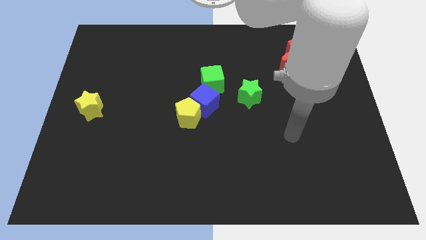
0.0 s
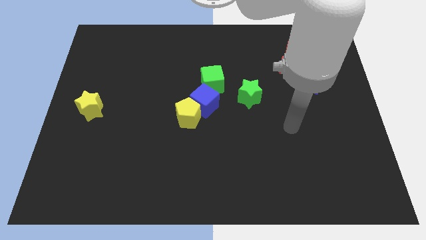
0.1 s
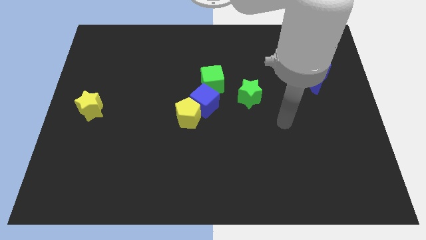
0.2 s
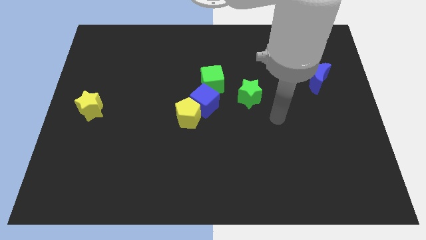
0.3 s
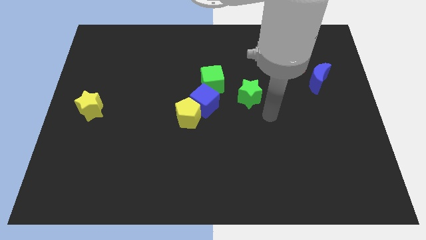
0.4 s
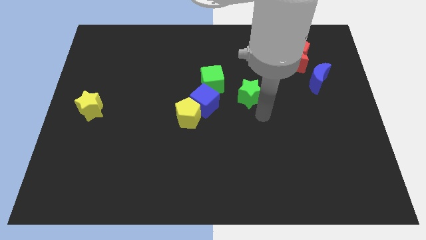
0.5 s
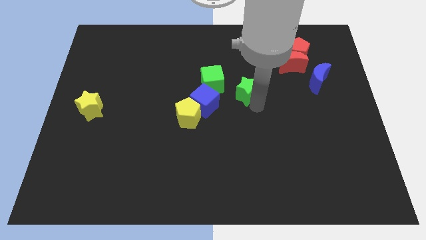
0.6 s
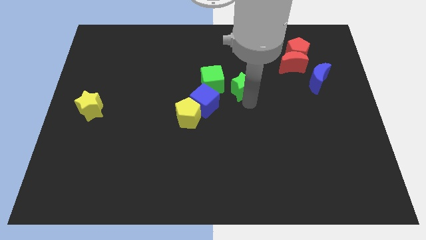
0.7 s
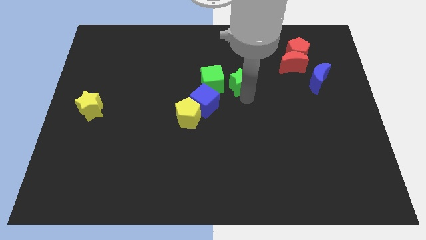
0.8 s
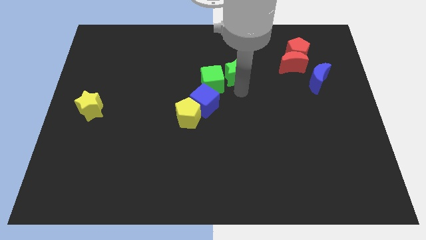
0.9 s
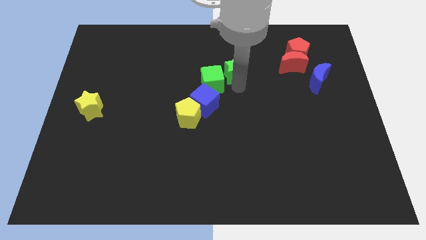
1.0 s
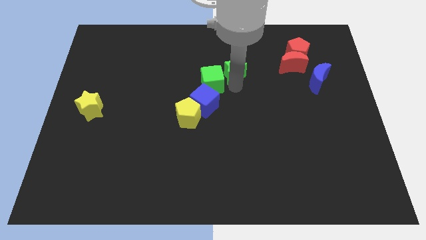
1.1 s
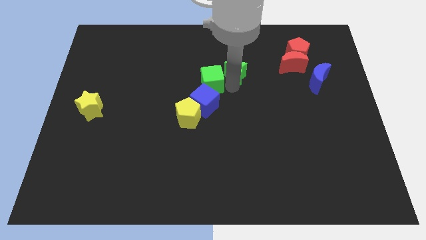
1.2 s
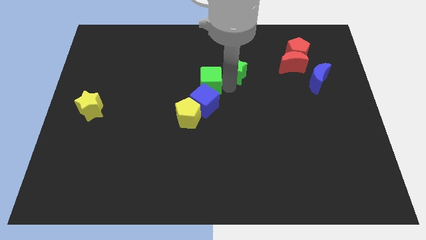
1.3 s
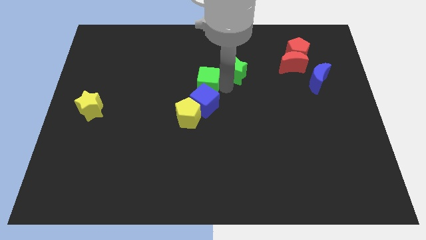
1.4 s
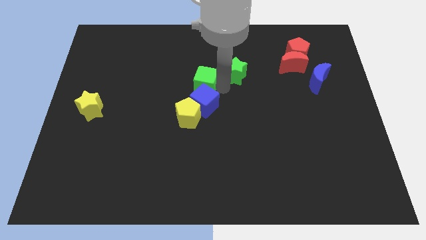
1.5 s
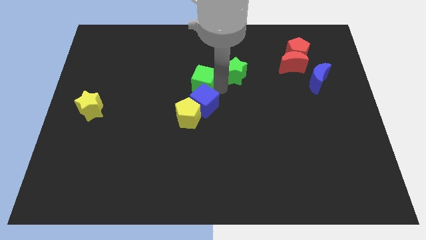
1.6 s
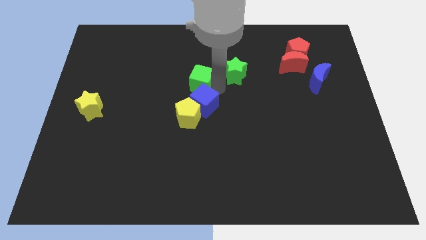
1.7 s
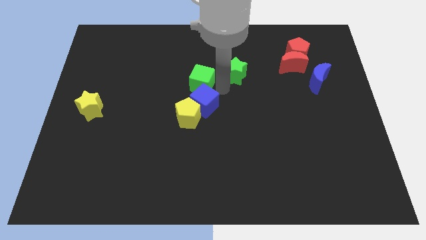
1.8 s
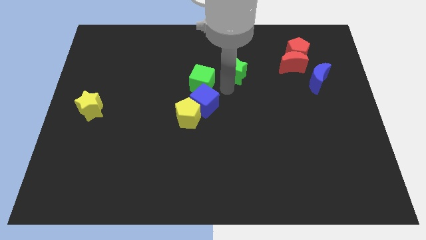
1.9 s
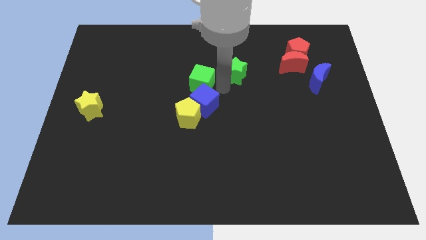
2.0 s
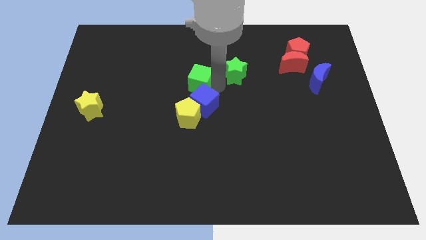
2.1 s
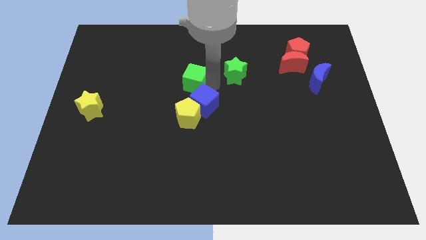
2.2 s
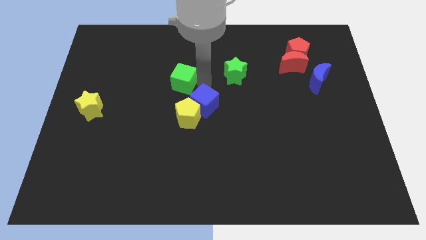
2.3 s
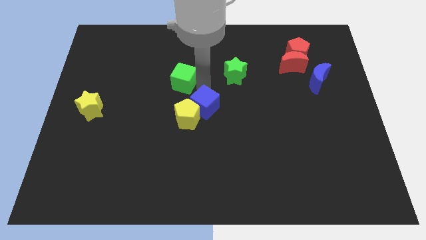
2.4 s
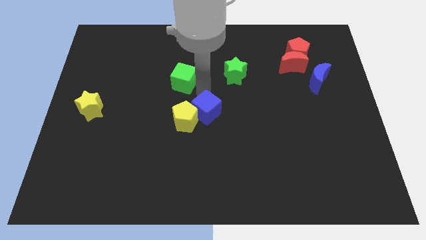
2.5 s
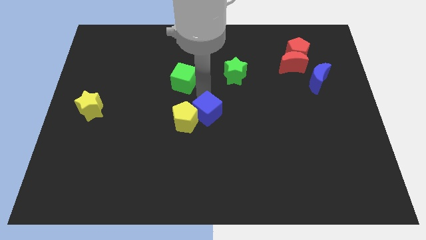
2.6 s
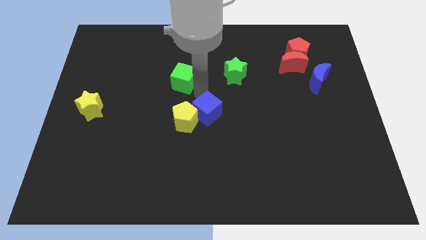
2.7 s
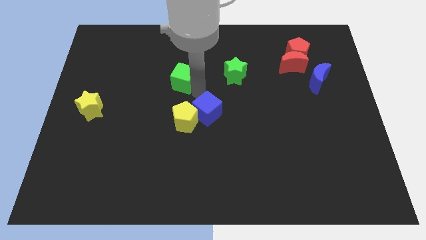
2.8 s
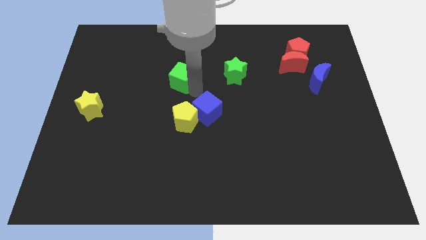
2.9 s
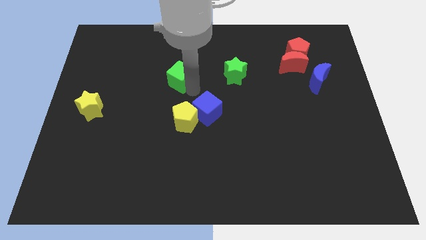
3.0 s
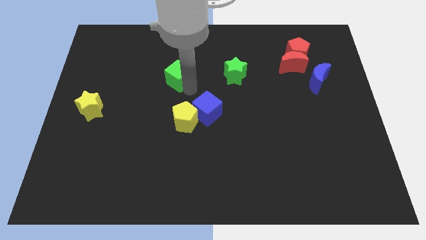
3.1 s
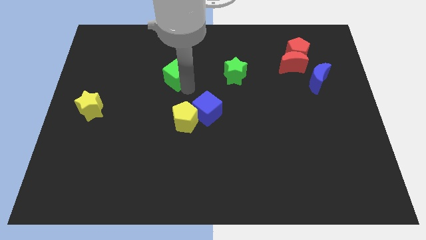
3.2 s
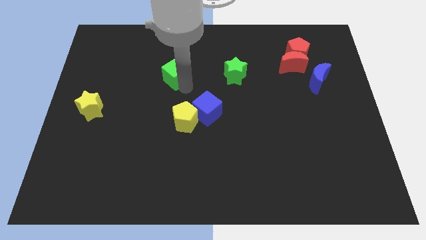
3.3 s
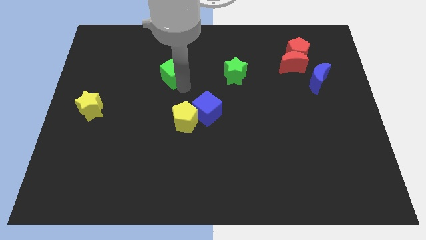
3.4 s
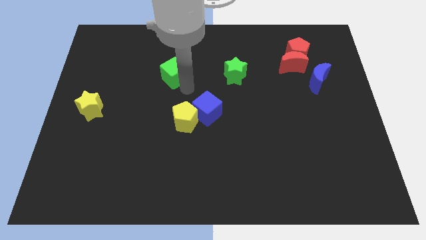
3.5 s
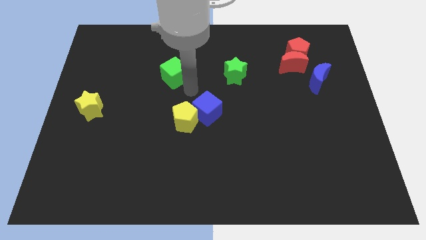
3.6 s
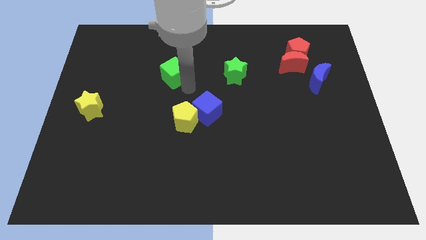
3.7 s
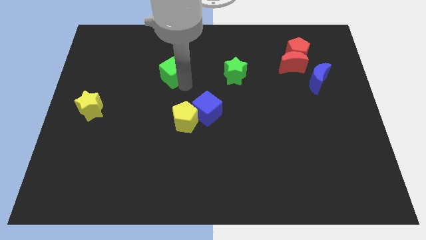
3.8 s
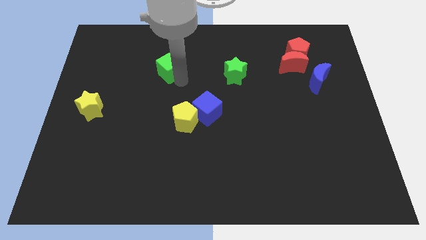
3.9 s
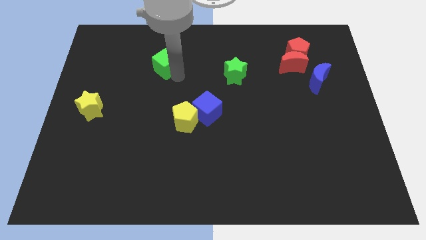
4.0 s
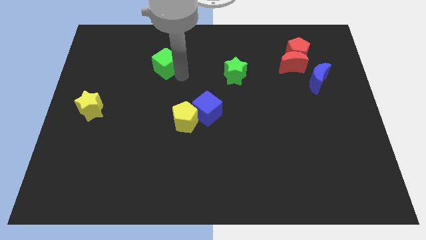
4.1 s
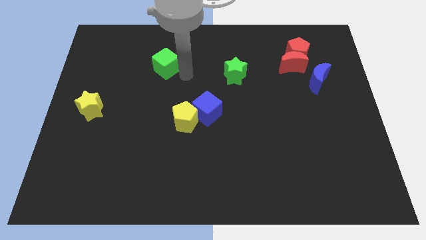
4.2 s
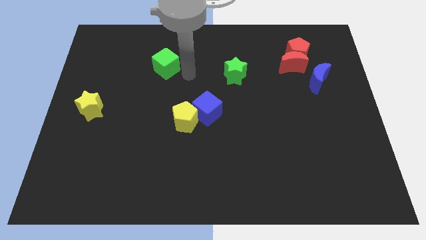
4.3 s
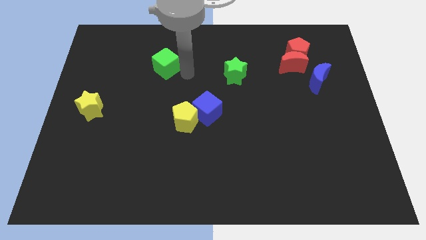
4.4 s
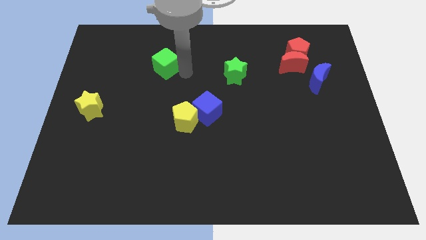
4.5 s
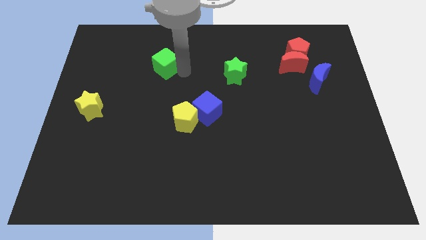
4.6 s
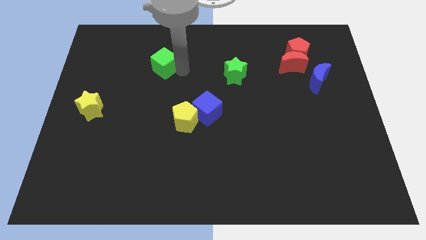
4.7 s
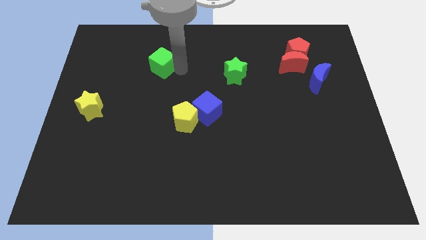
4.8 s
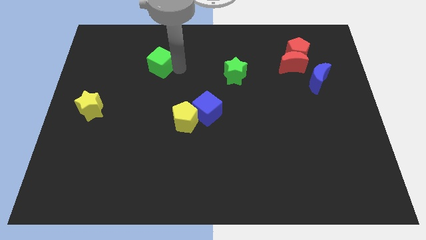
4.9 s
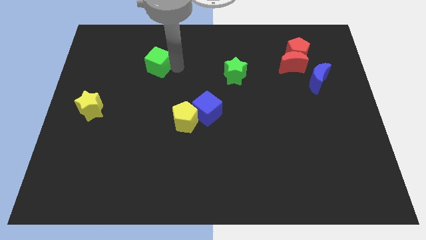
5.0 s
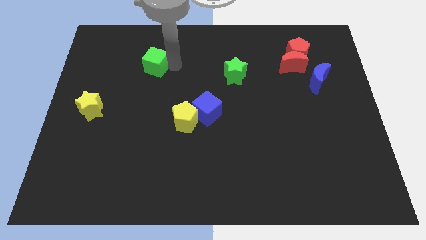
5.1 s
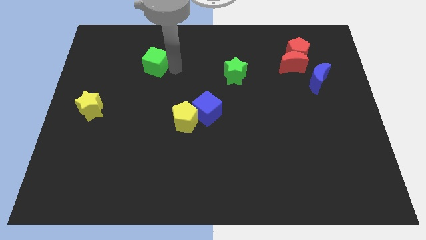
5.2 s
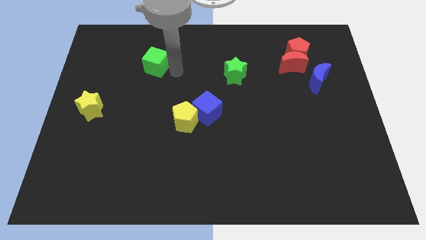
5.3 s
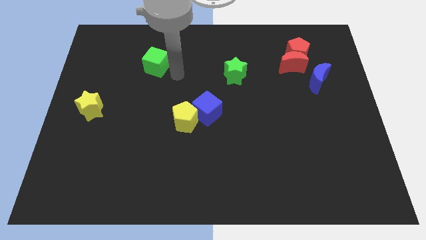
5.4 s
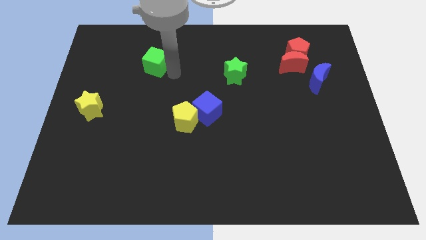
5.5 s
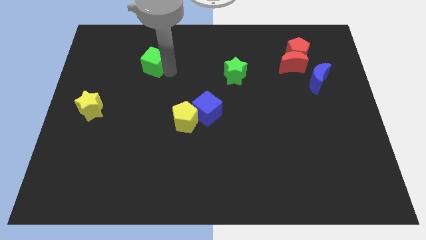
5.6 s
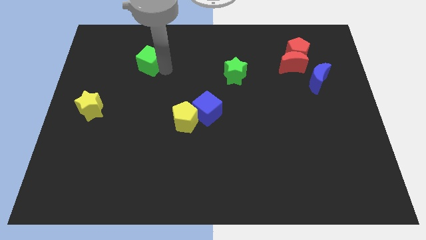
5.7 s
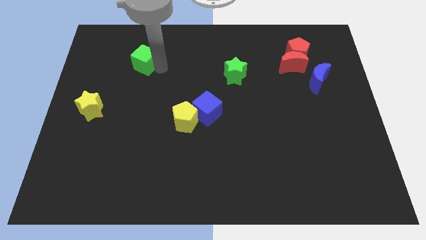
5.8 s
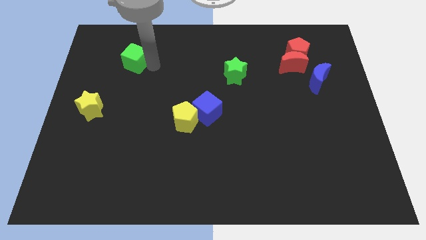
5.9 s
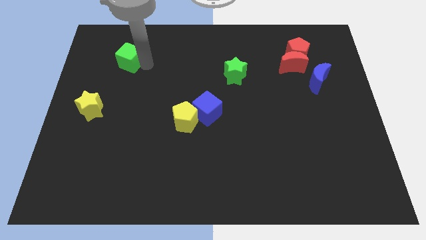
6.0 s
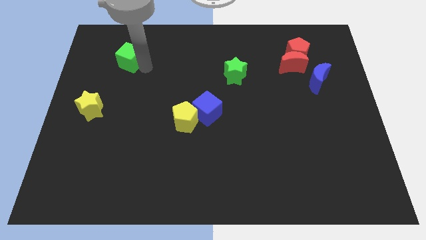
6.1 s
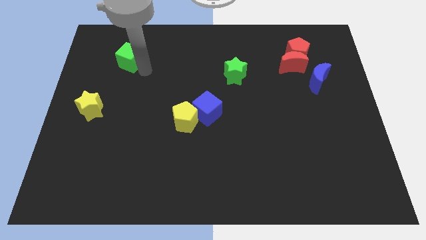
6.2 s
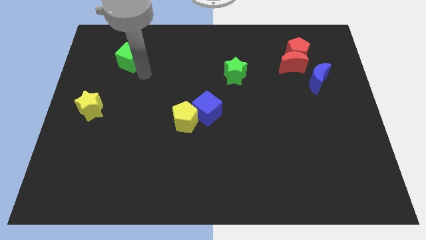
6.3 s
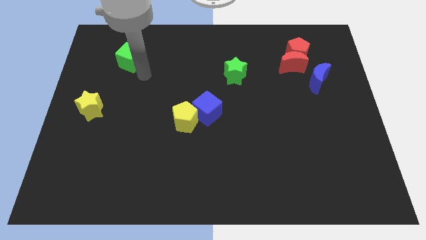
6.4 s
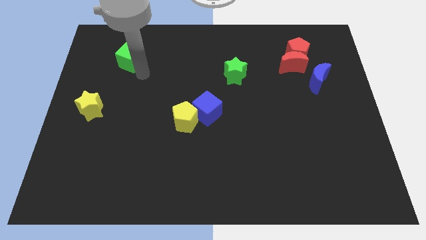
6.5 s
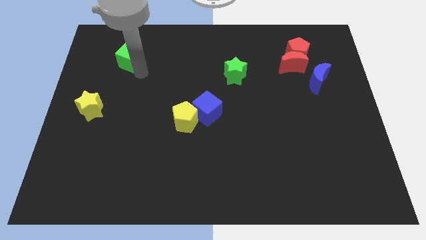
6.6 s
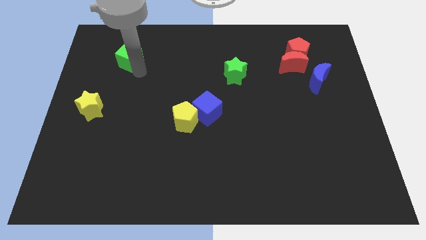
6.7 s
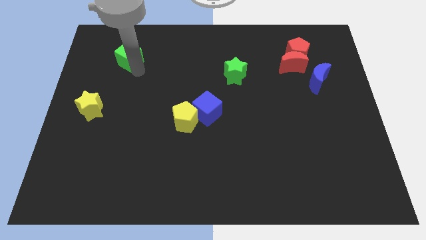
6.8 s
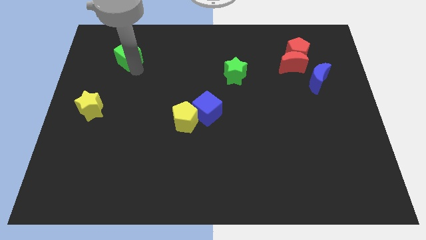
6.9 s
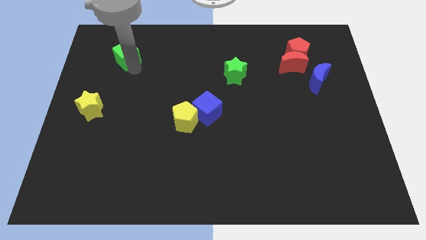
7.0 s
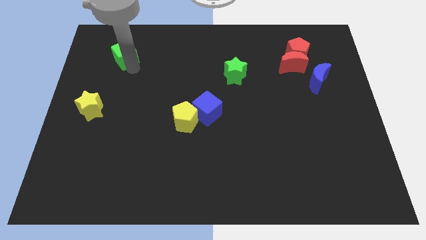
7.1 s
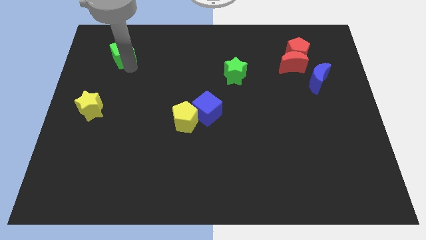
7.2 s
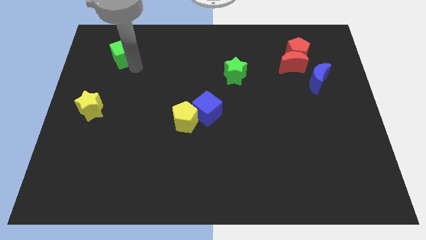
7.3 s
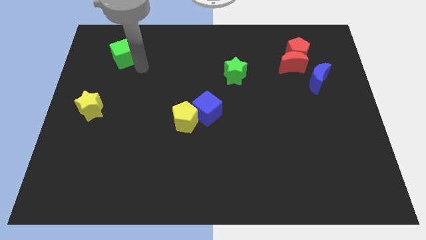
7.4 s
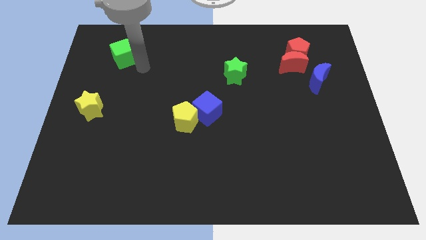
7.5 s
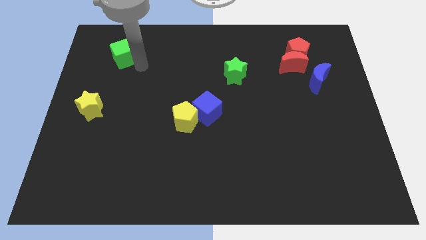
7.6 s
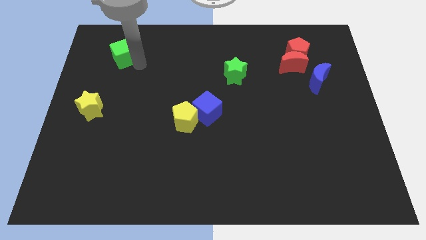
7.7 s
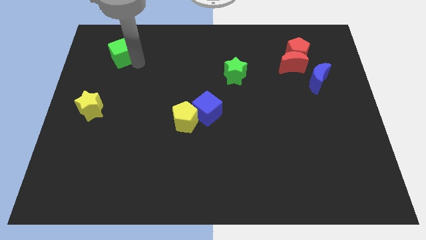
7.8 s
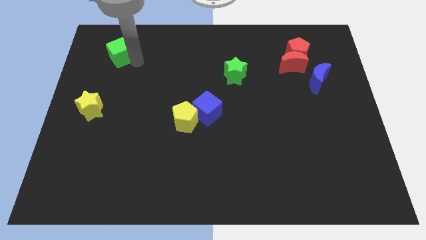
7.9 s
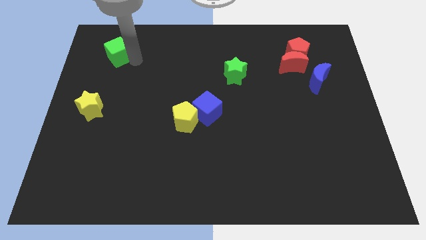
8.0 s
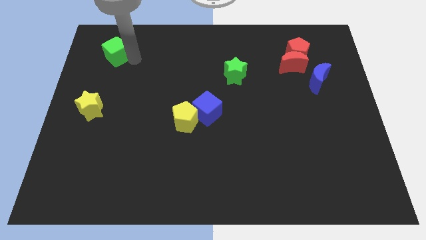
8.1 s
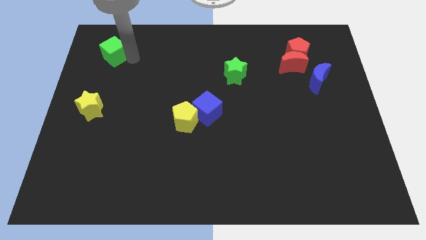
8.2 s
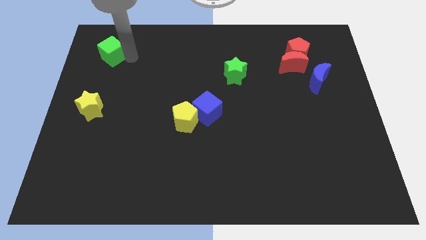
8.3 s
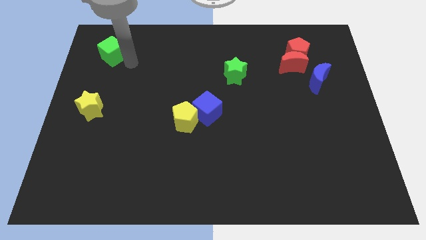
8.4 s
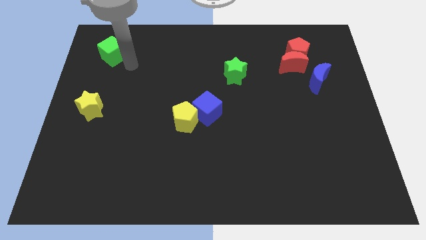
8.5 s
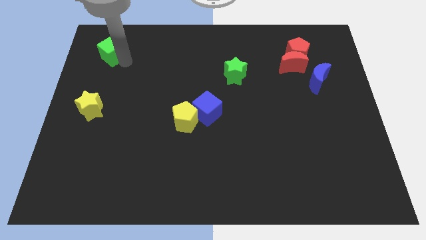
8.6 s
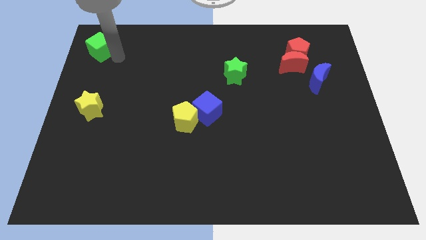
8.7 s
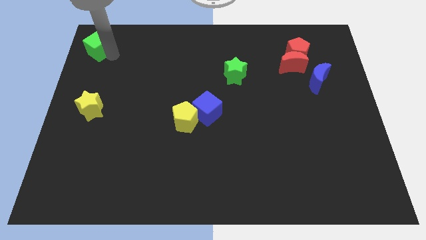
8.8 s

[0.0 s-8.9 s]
slide the green cube to the top left of the board
